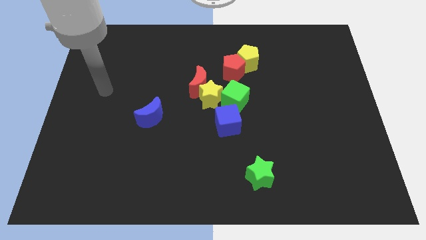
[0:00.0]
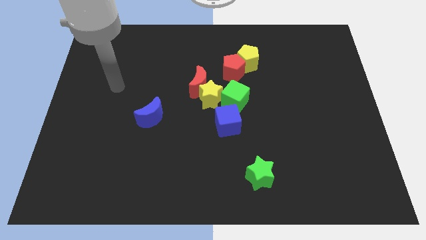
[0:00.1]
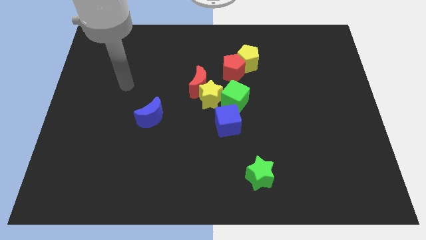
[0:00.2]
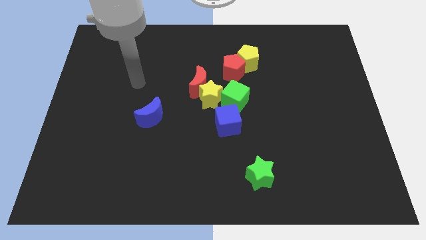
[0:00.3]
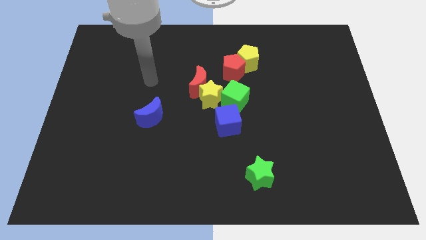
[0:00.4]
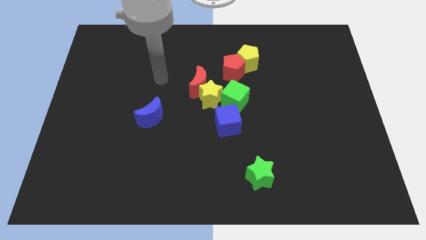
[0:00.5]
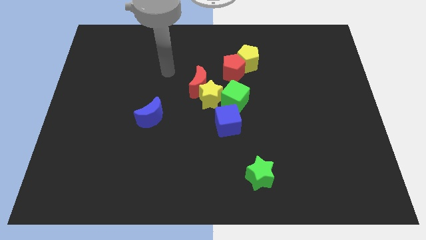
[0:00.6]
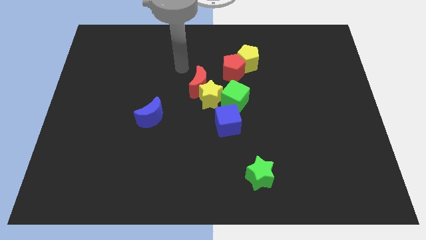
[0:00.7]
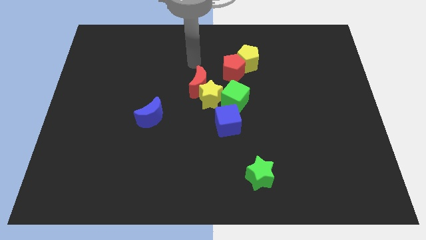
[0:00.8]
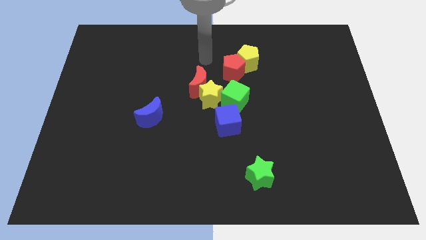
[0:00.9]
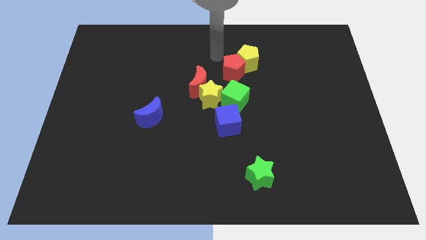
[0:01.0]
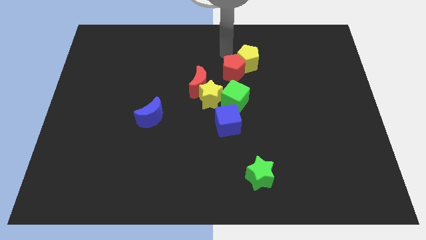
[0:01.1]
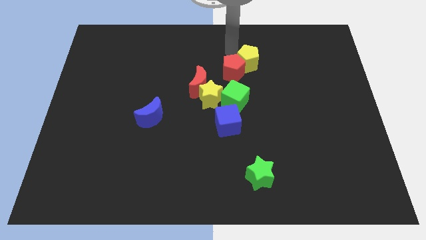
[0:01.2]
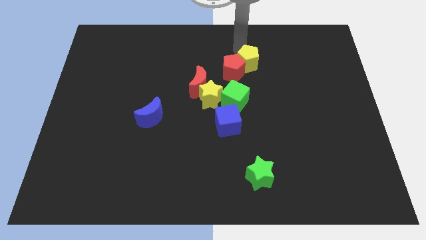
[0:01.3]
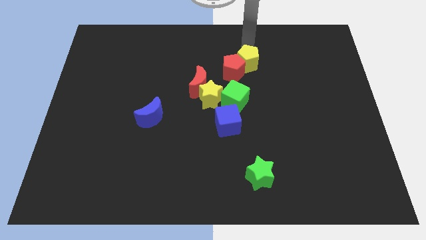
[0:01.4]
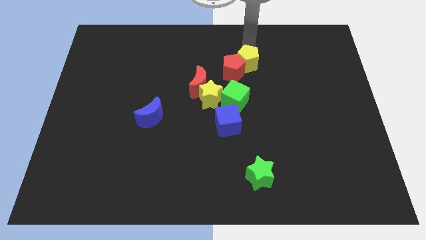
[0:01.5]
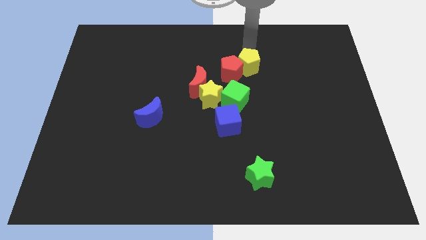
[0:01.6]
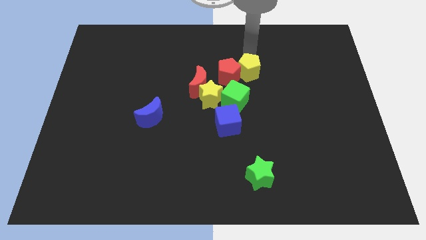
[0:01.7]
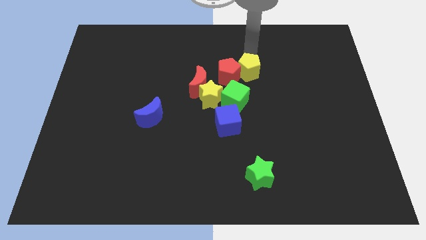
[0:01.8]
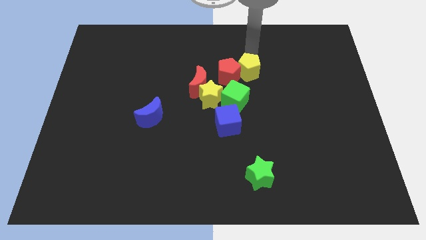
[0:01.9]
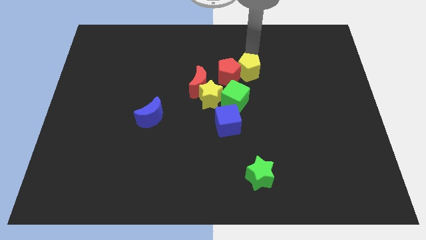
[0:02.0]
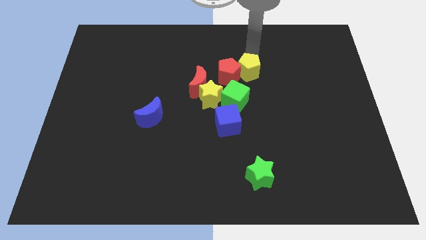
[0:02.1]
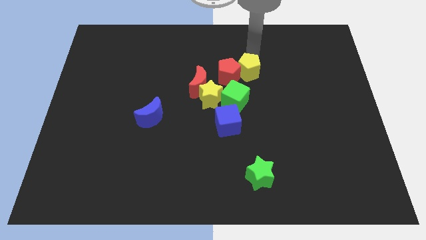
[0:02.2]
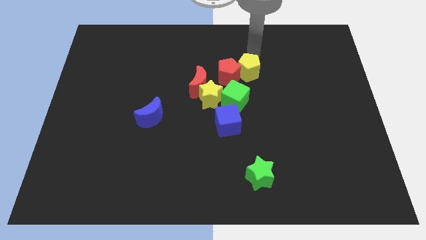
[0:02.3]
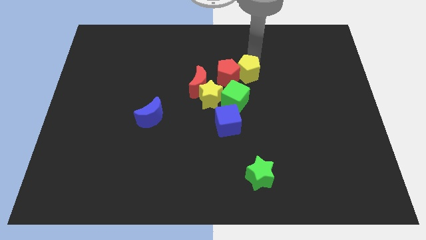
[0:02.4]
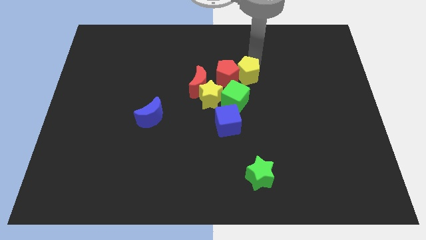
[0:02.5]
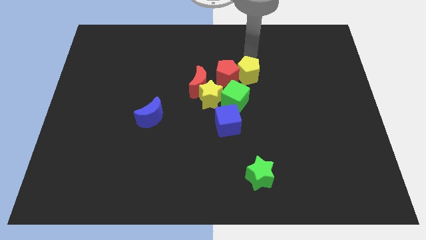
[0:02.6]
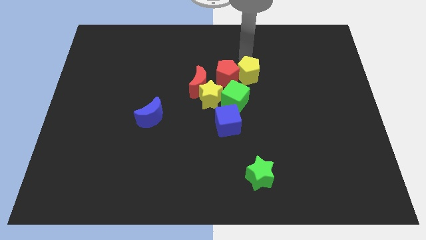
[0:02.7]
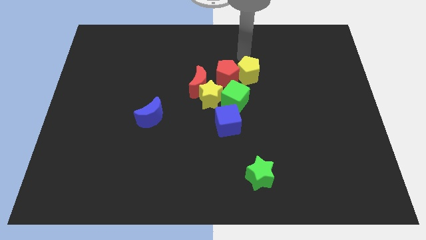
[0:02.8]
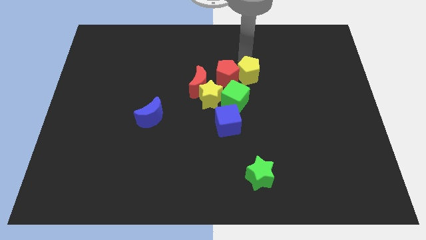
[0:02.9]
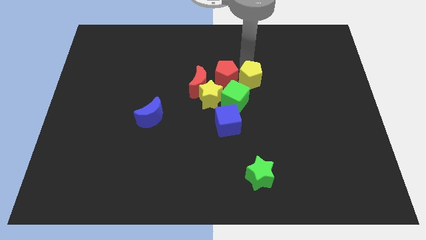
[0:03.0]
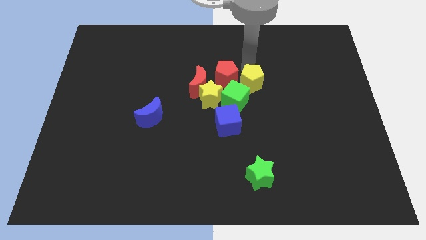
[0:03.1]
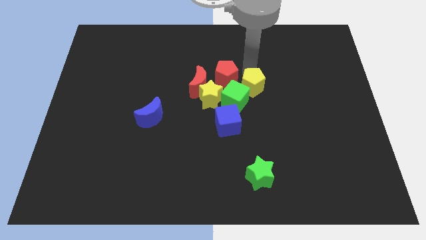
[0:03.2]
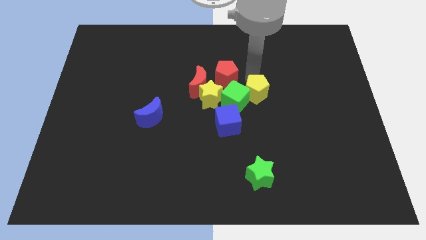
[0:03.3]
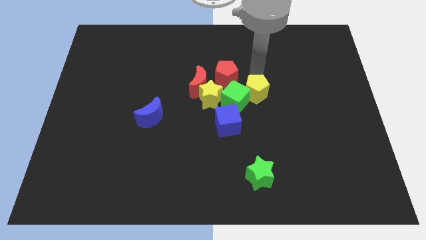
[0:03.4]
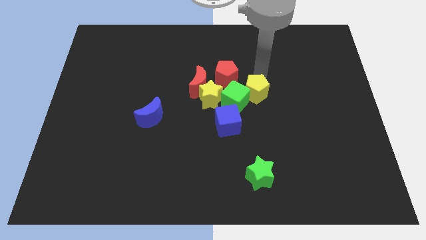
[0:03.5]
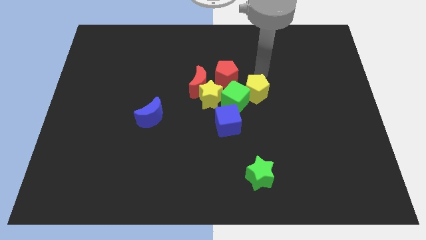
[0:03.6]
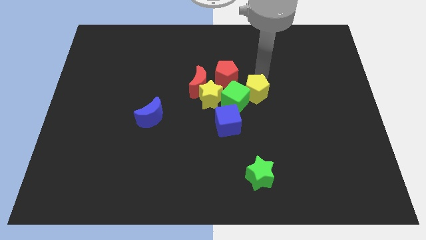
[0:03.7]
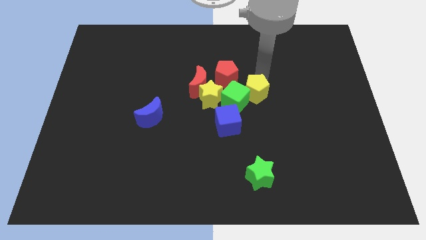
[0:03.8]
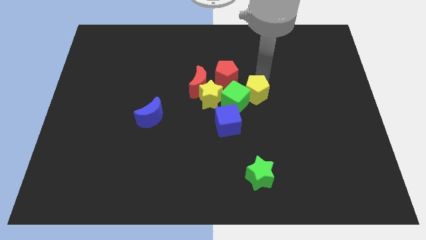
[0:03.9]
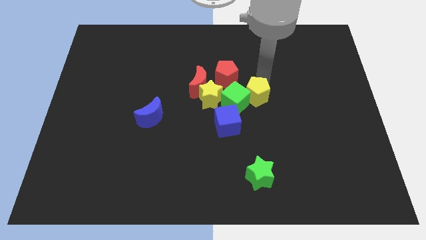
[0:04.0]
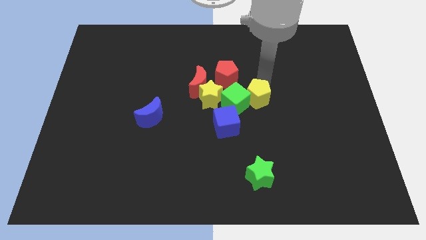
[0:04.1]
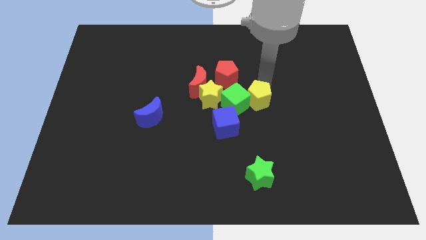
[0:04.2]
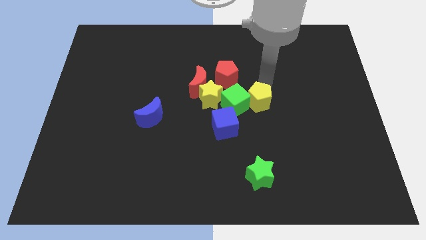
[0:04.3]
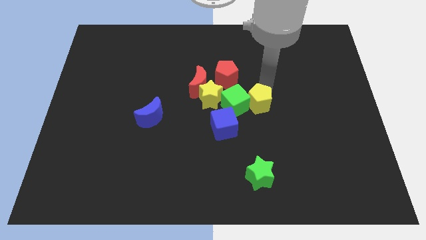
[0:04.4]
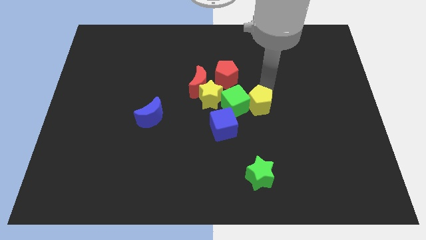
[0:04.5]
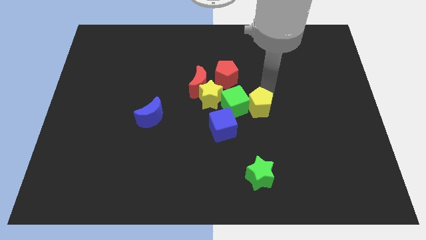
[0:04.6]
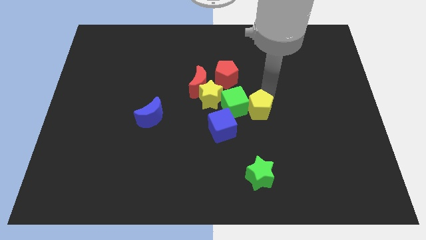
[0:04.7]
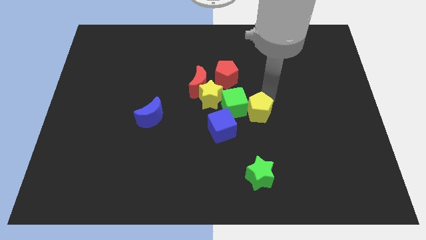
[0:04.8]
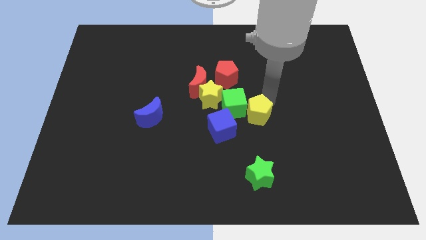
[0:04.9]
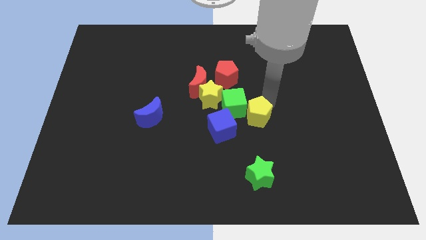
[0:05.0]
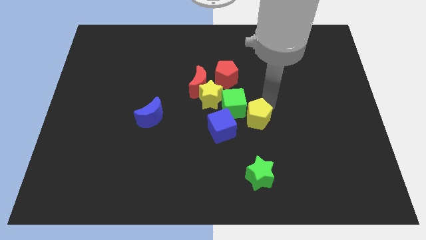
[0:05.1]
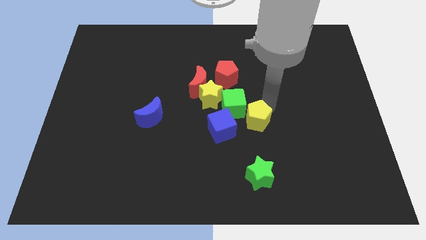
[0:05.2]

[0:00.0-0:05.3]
move the yellow pentagon to the bottom right of the yellow star

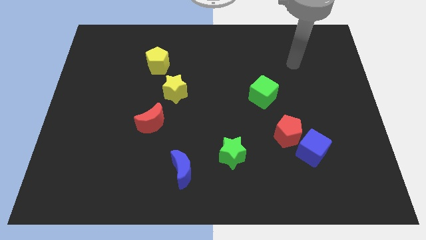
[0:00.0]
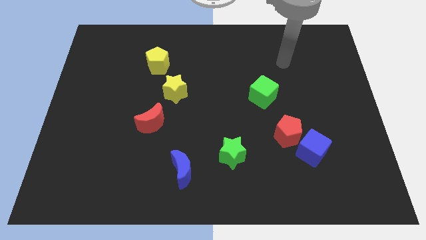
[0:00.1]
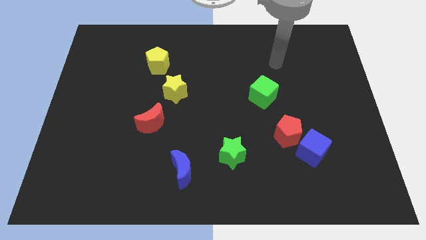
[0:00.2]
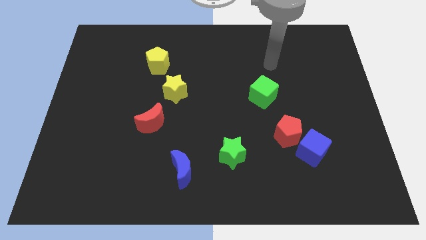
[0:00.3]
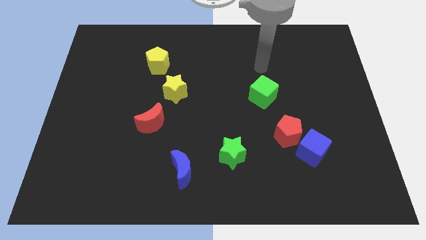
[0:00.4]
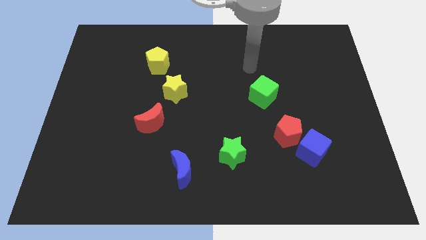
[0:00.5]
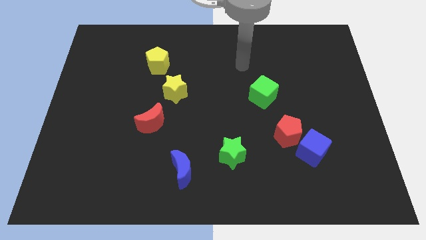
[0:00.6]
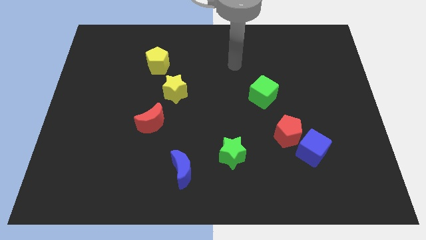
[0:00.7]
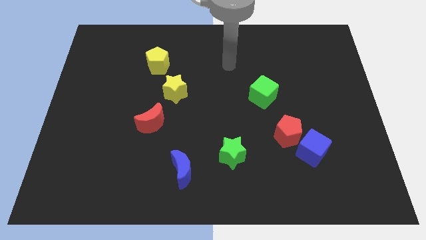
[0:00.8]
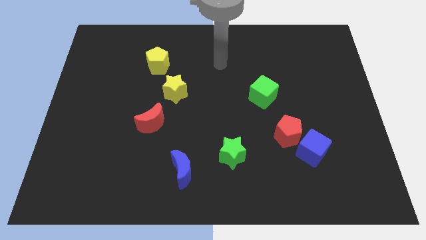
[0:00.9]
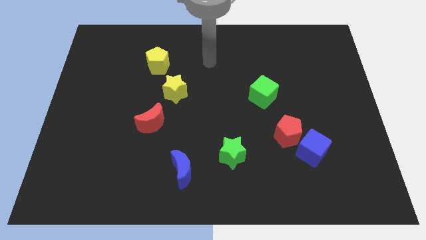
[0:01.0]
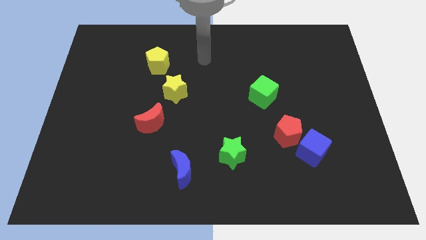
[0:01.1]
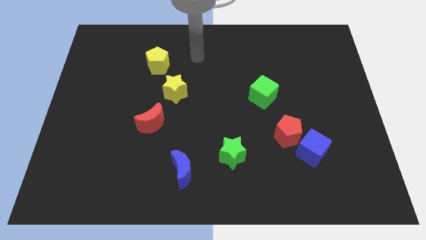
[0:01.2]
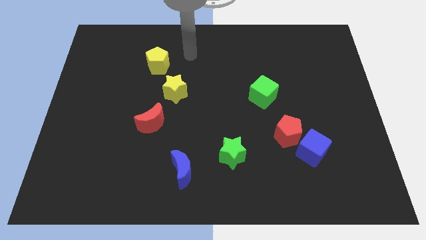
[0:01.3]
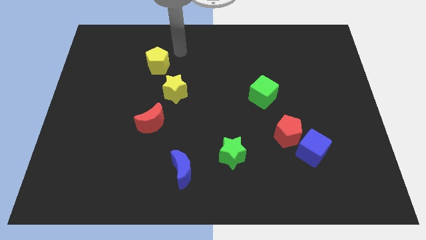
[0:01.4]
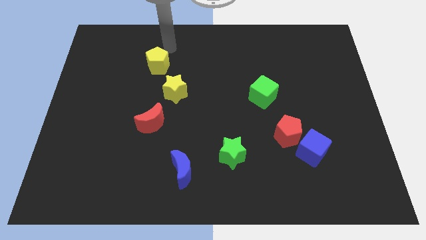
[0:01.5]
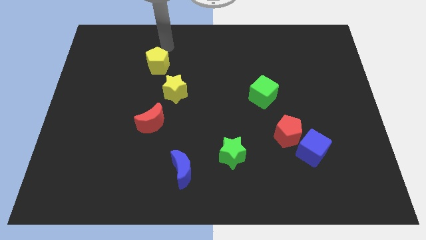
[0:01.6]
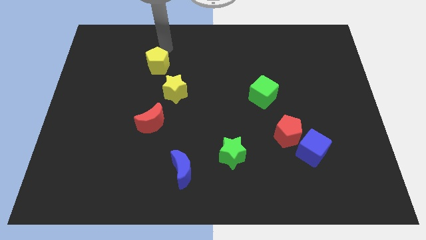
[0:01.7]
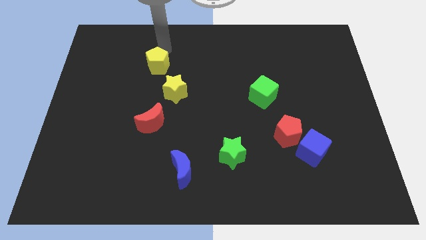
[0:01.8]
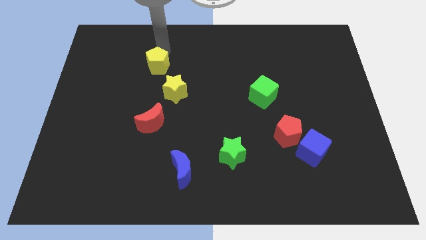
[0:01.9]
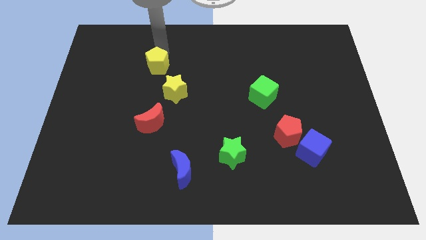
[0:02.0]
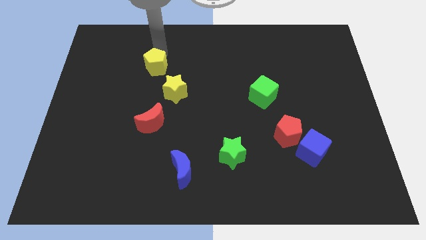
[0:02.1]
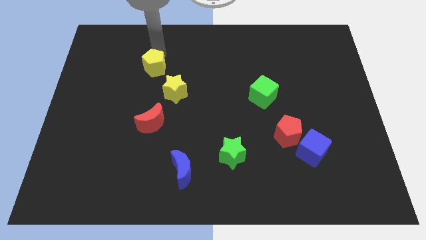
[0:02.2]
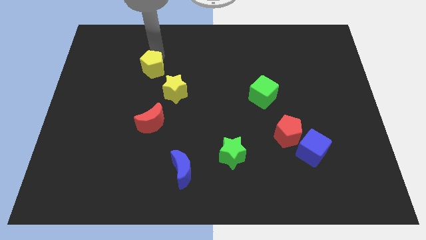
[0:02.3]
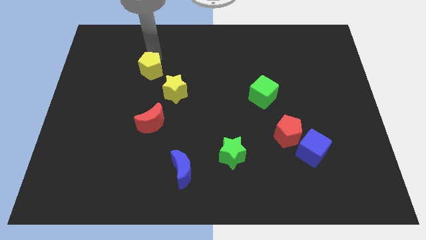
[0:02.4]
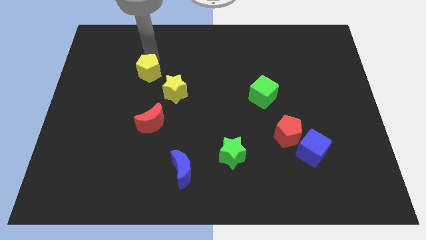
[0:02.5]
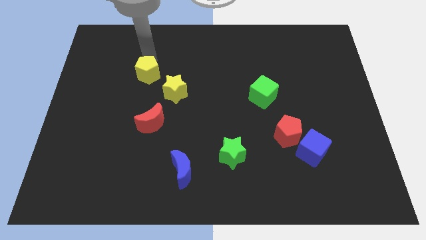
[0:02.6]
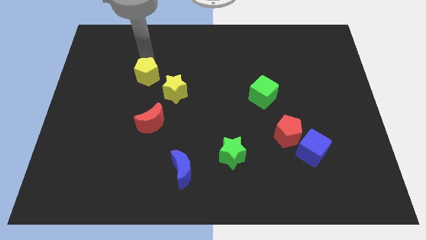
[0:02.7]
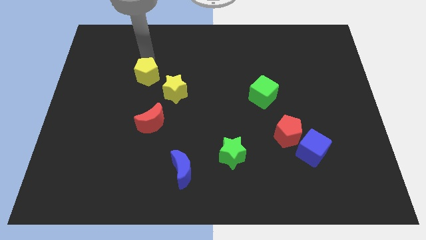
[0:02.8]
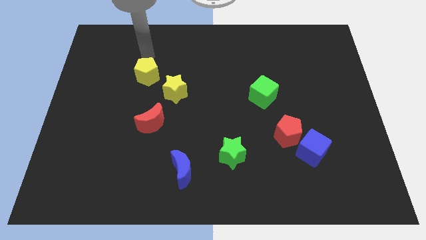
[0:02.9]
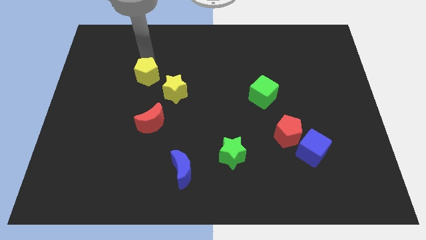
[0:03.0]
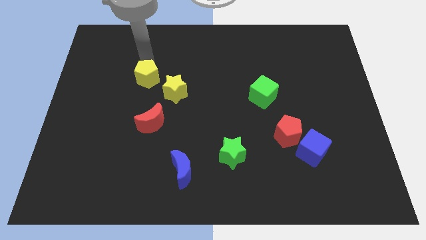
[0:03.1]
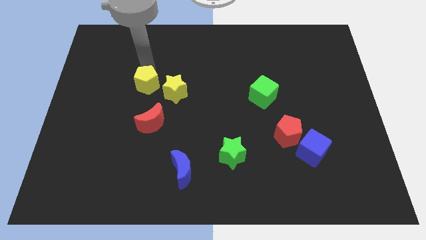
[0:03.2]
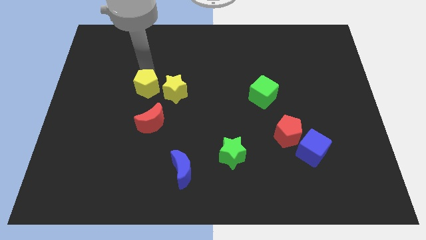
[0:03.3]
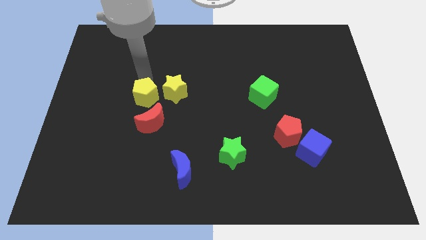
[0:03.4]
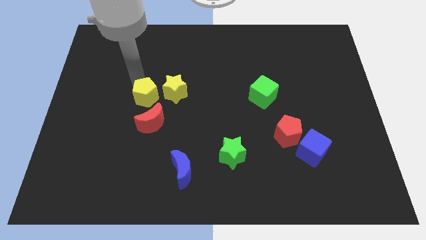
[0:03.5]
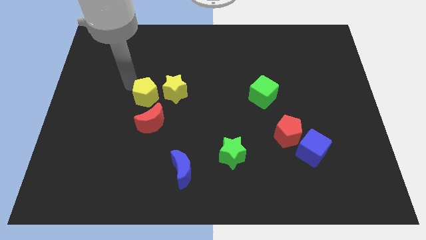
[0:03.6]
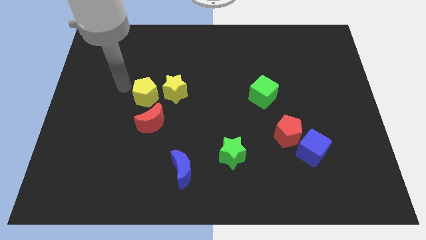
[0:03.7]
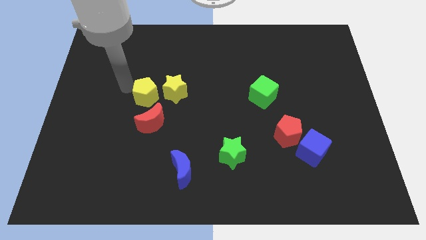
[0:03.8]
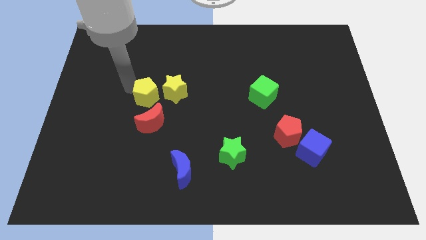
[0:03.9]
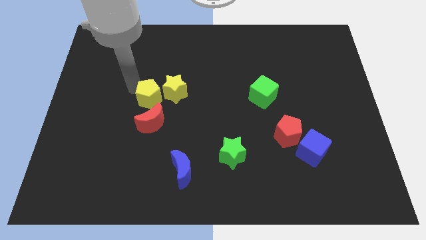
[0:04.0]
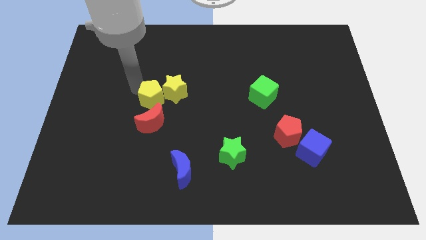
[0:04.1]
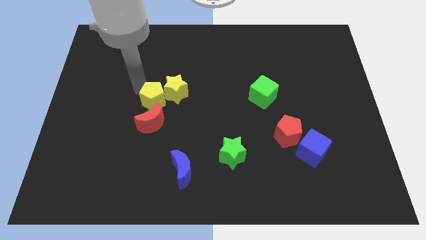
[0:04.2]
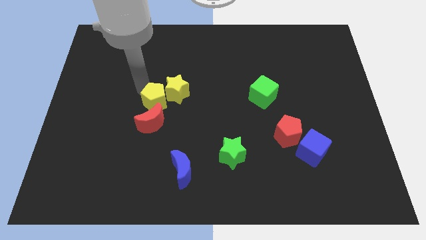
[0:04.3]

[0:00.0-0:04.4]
slide the yellow pentagon diagonally up and to the right of the red moon
